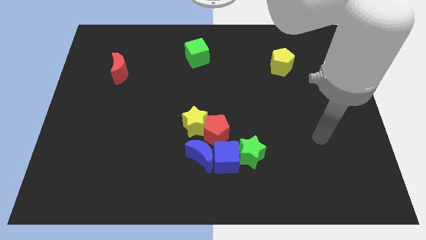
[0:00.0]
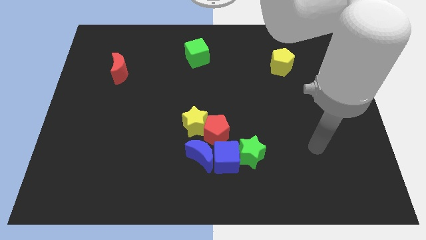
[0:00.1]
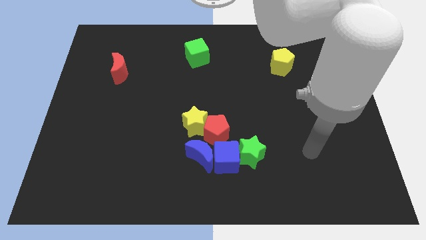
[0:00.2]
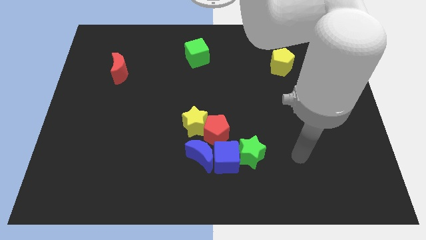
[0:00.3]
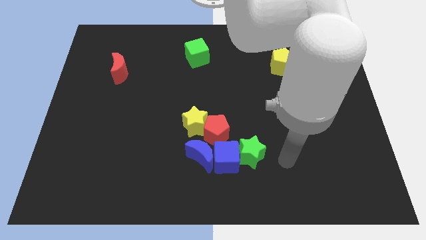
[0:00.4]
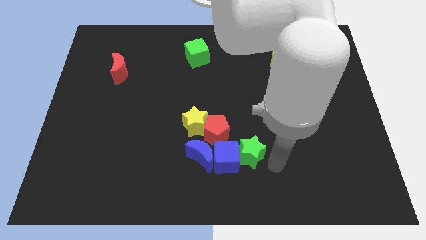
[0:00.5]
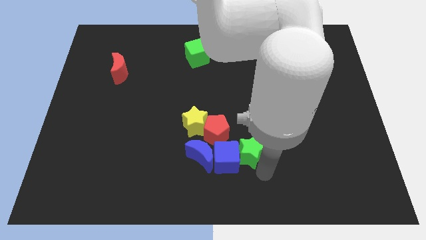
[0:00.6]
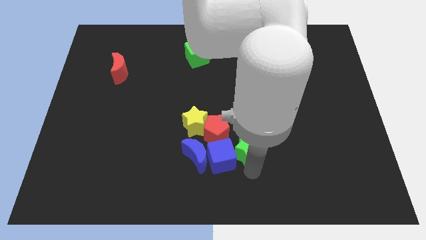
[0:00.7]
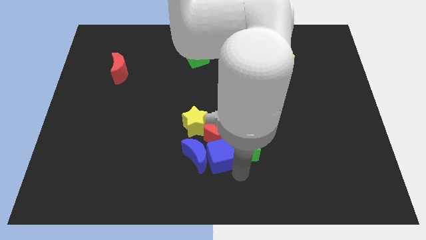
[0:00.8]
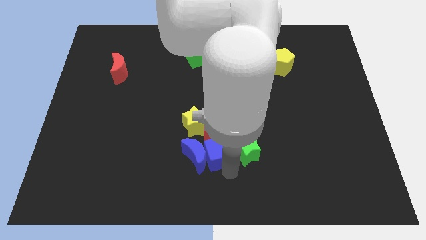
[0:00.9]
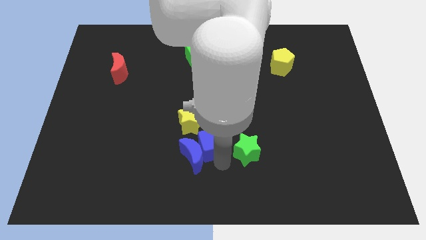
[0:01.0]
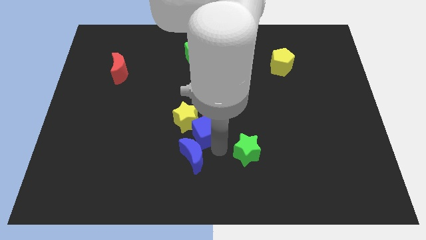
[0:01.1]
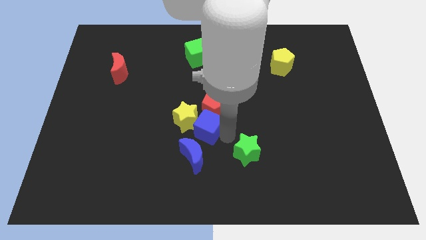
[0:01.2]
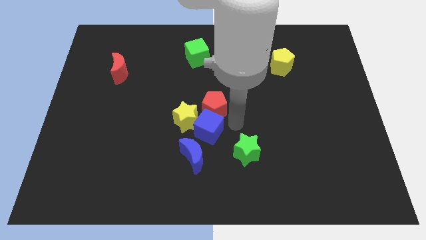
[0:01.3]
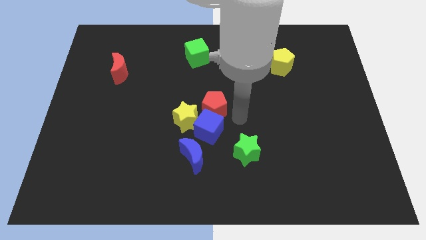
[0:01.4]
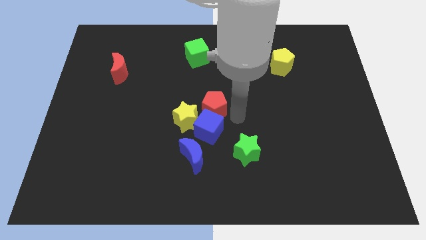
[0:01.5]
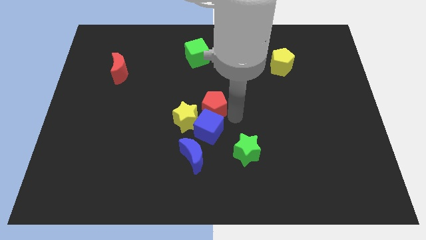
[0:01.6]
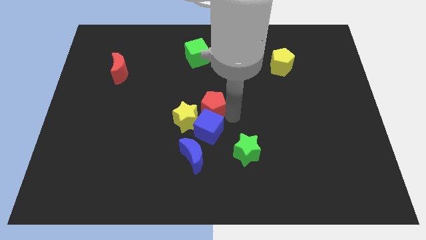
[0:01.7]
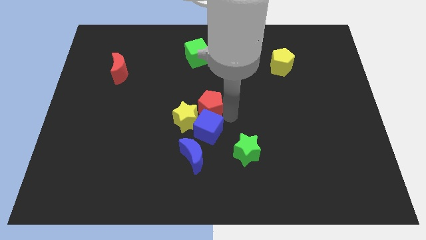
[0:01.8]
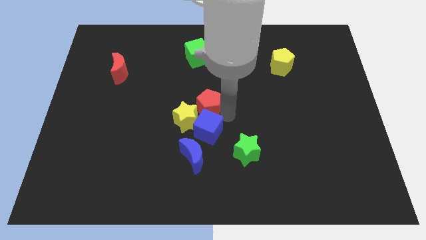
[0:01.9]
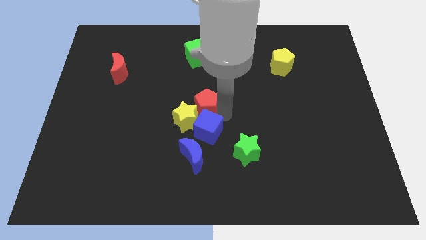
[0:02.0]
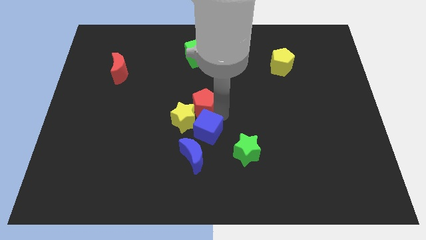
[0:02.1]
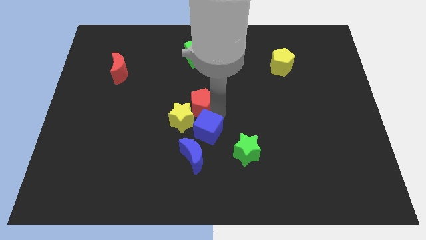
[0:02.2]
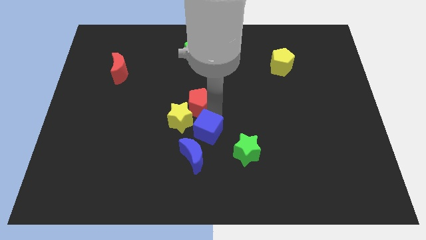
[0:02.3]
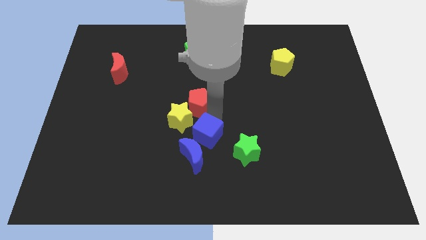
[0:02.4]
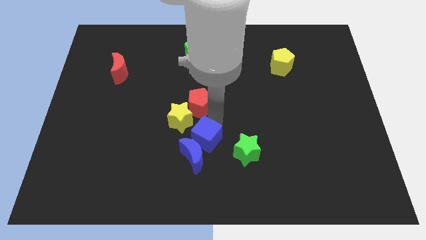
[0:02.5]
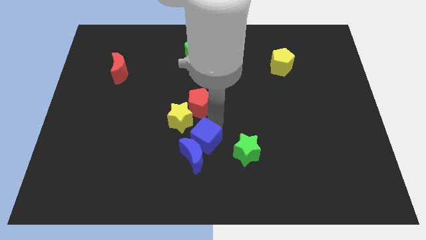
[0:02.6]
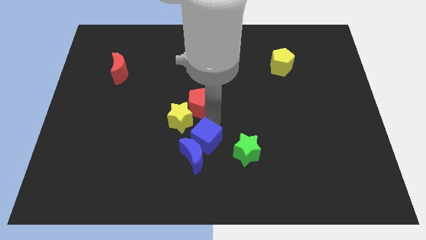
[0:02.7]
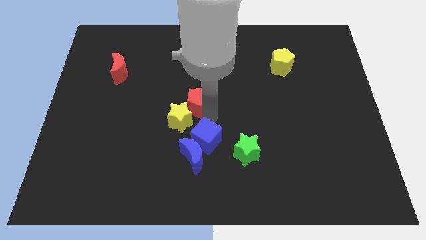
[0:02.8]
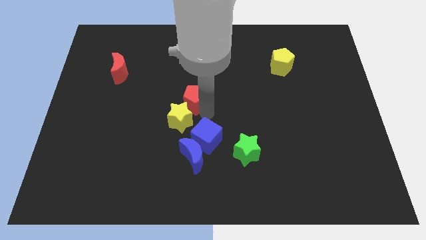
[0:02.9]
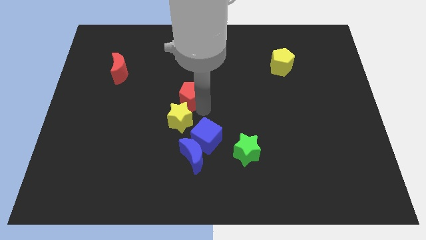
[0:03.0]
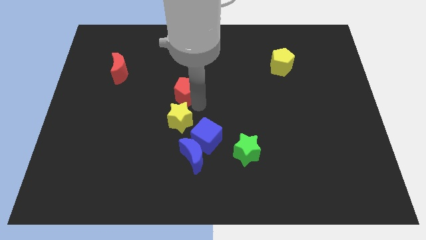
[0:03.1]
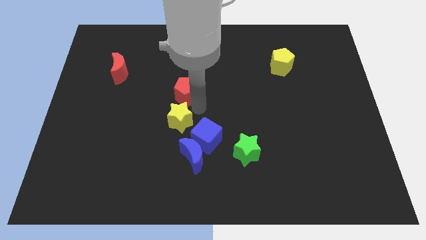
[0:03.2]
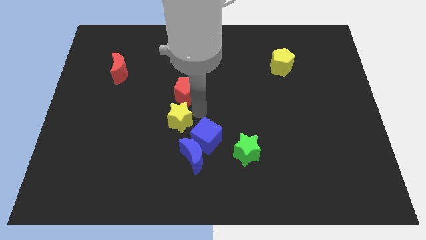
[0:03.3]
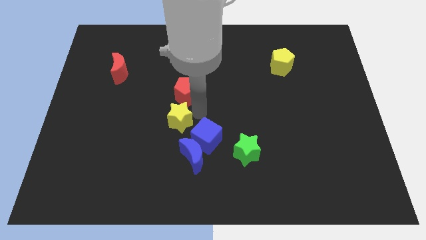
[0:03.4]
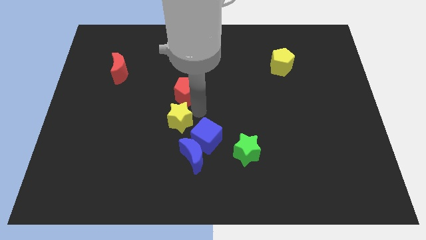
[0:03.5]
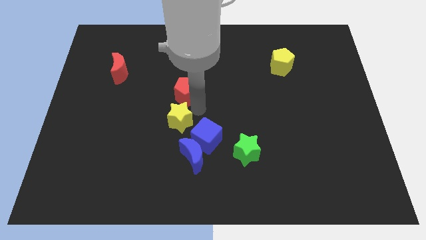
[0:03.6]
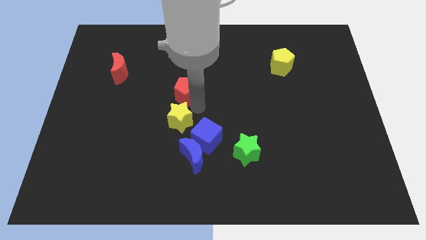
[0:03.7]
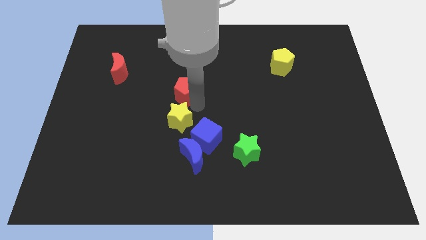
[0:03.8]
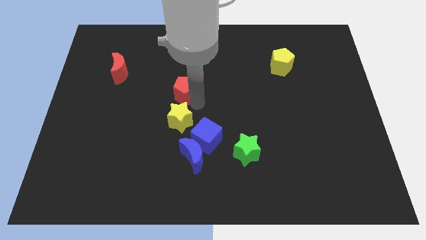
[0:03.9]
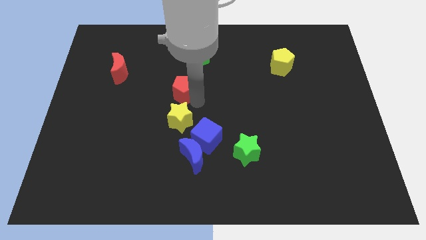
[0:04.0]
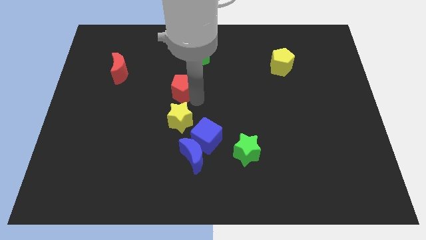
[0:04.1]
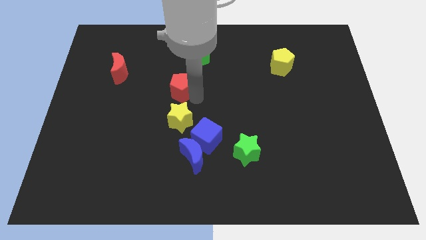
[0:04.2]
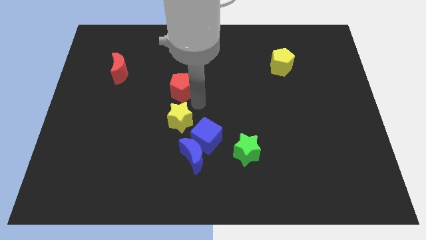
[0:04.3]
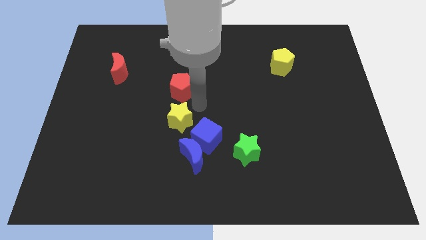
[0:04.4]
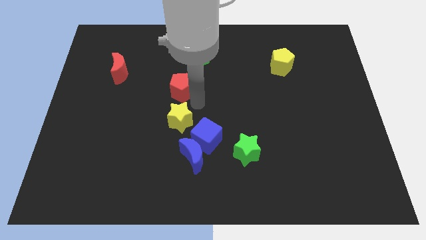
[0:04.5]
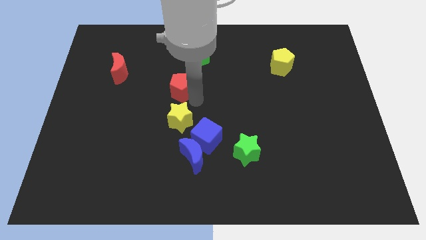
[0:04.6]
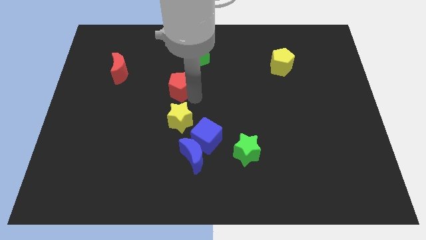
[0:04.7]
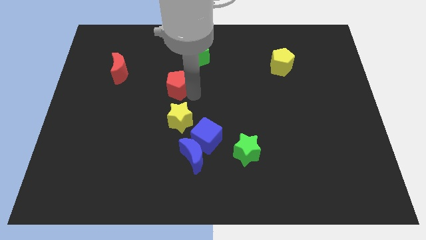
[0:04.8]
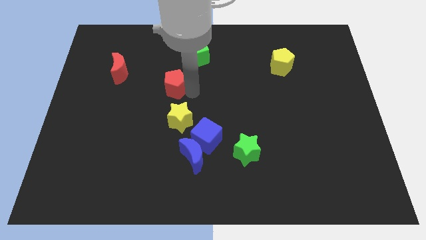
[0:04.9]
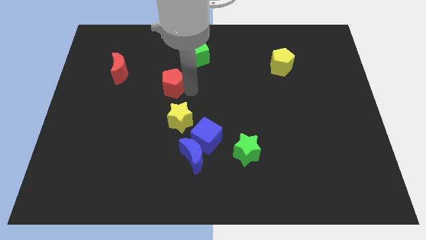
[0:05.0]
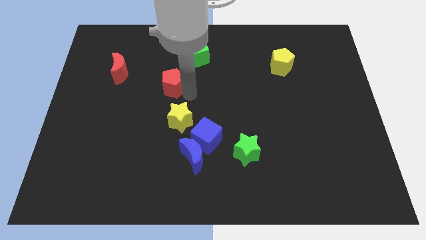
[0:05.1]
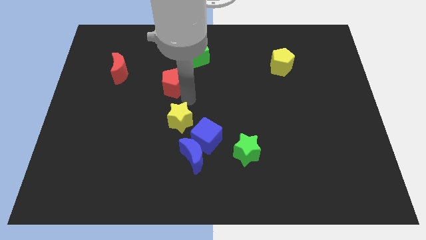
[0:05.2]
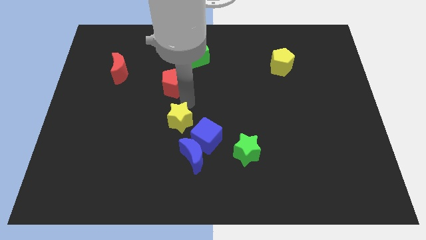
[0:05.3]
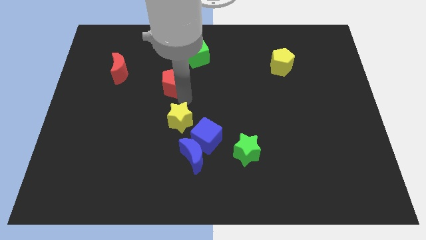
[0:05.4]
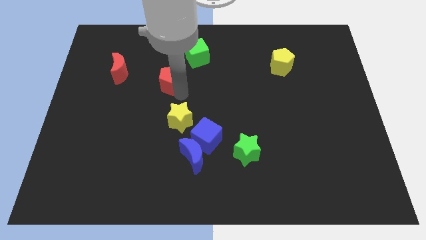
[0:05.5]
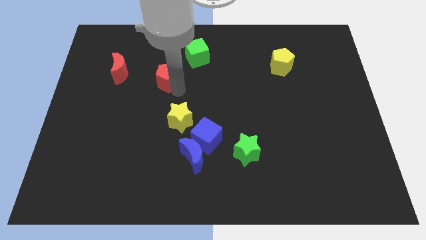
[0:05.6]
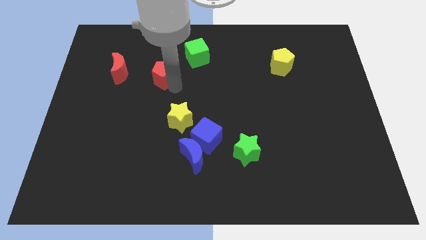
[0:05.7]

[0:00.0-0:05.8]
move the red pentagon upwards and then to the left

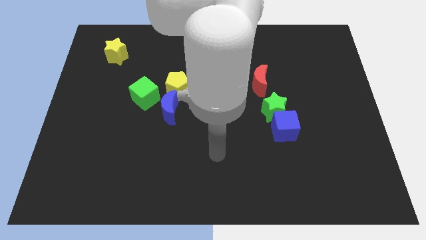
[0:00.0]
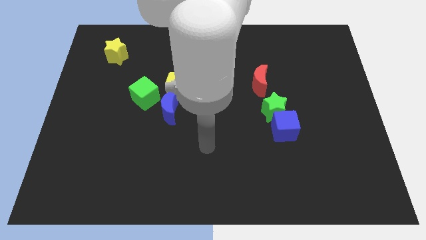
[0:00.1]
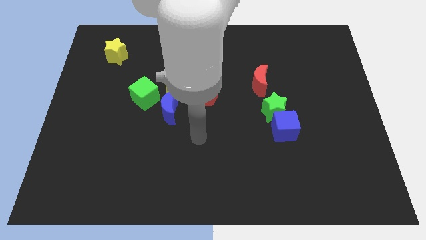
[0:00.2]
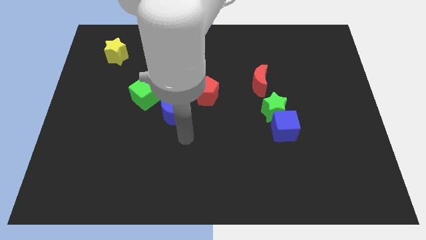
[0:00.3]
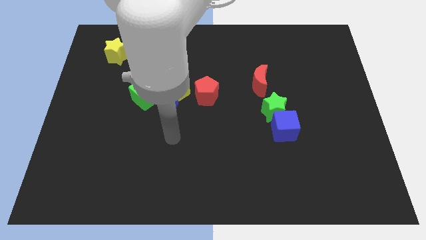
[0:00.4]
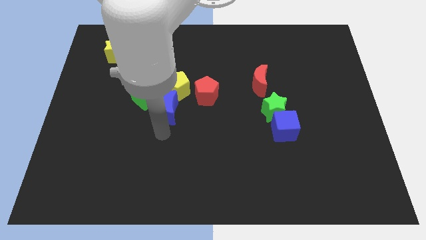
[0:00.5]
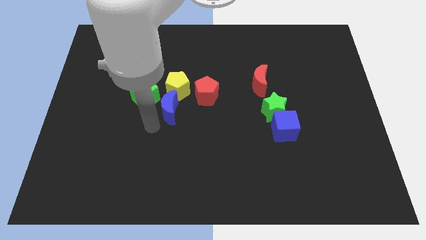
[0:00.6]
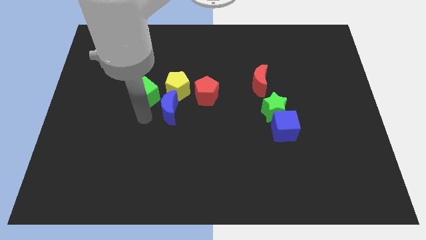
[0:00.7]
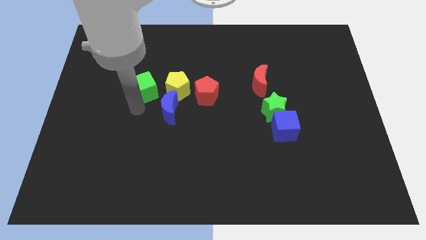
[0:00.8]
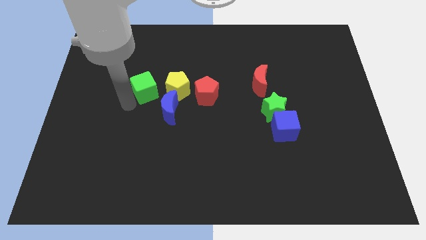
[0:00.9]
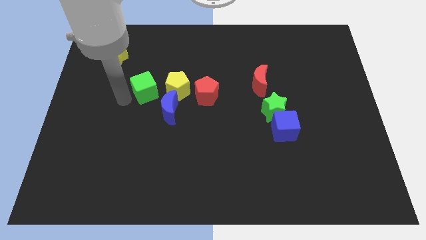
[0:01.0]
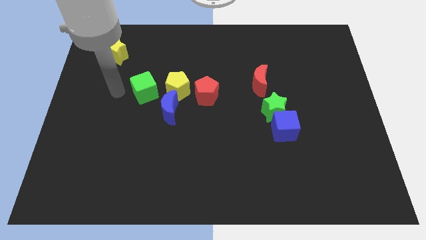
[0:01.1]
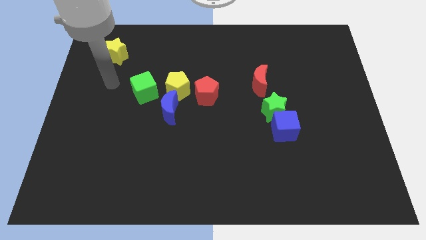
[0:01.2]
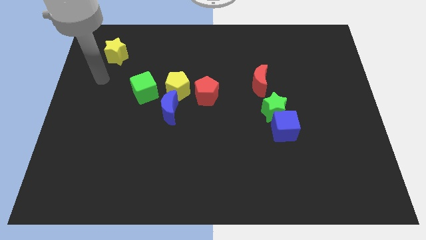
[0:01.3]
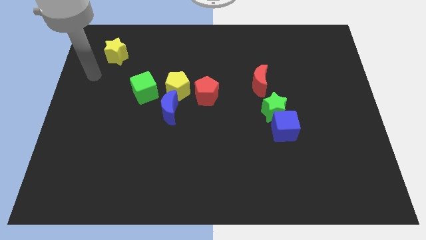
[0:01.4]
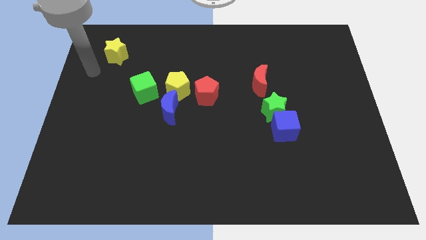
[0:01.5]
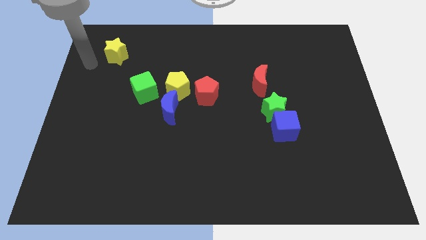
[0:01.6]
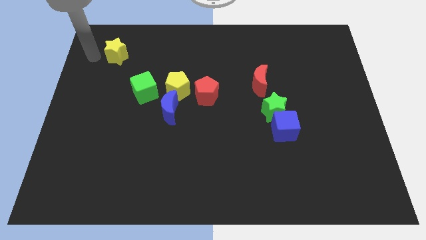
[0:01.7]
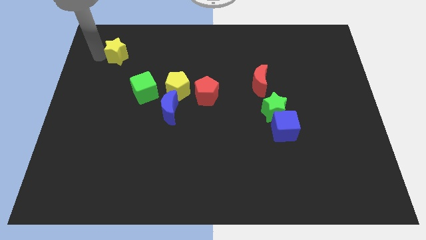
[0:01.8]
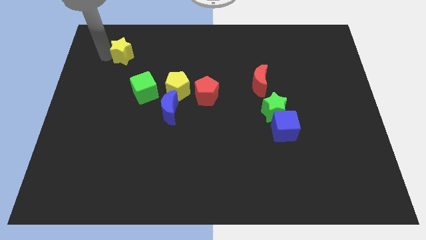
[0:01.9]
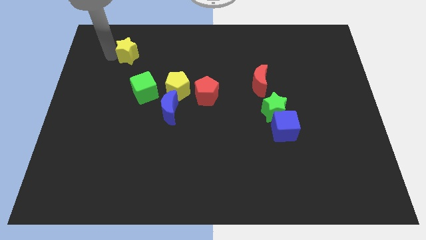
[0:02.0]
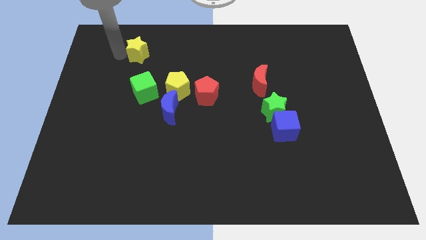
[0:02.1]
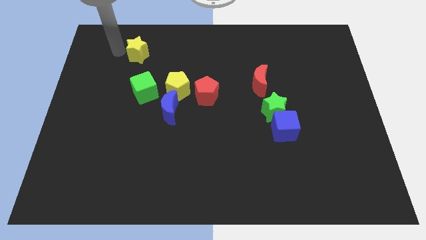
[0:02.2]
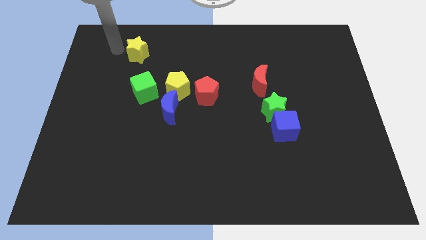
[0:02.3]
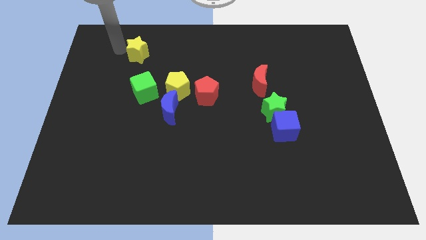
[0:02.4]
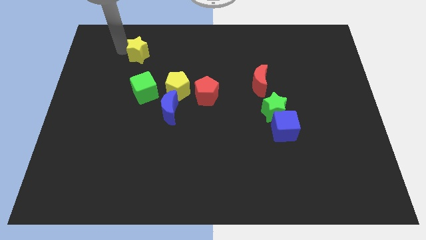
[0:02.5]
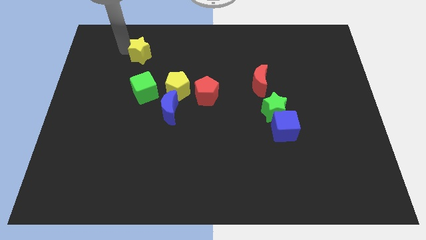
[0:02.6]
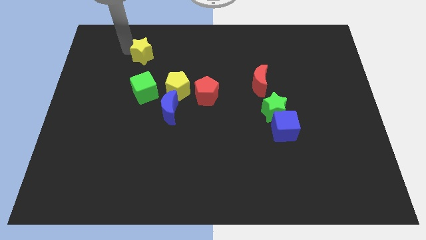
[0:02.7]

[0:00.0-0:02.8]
move the yellow star a bit right
